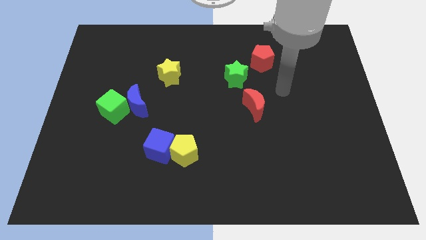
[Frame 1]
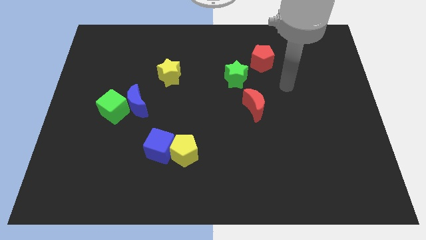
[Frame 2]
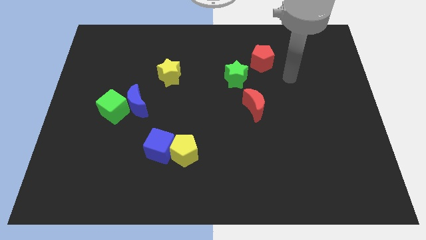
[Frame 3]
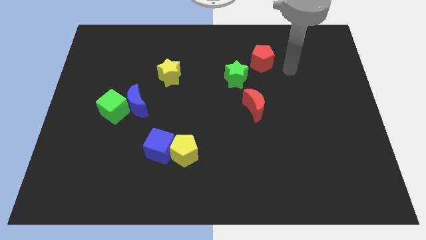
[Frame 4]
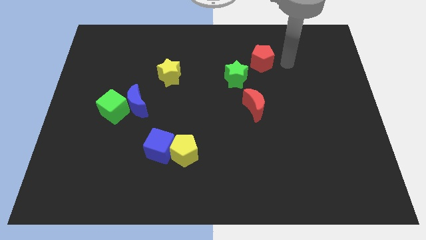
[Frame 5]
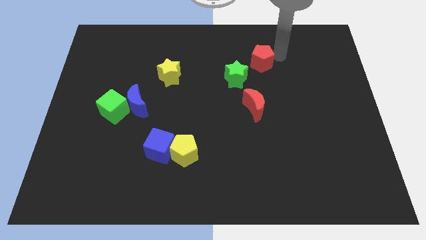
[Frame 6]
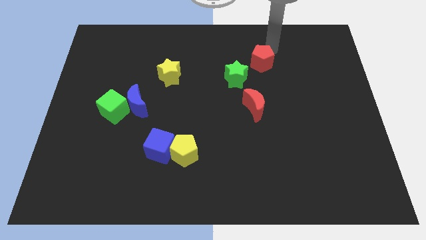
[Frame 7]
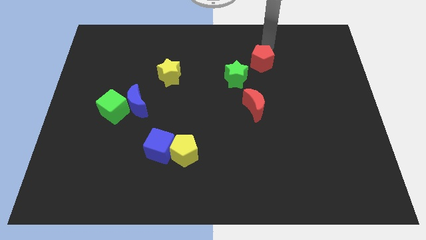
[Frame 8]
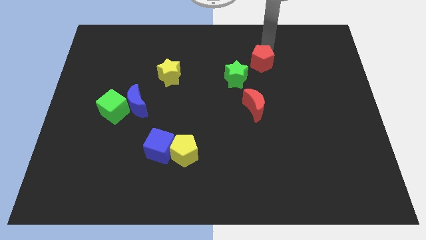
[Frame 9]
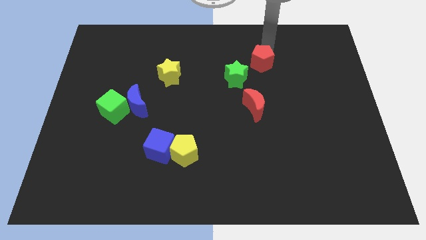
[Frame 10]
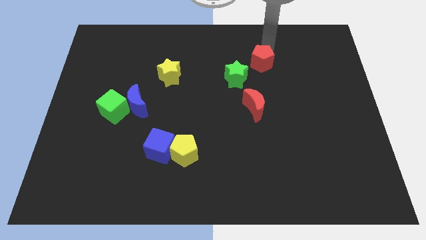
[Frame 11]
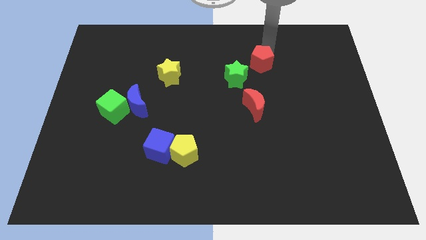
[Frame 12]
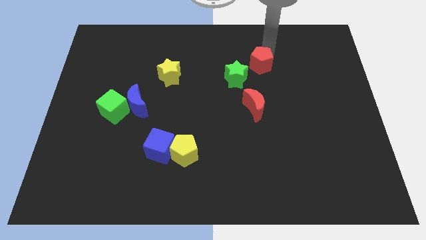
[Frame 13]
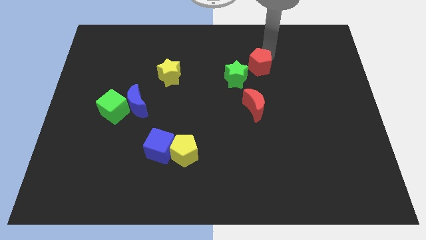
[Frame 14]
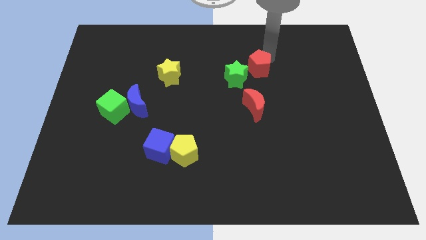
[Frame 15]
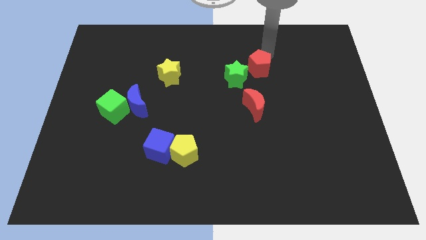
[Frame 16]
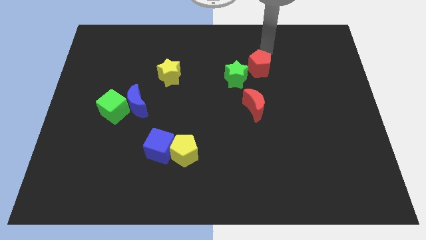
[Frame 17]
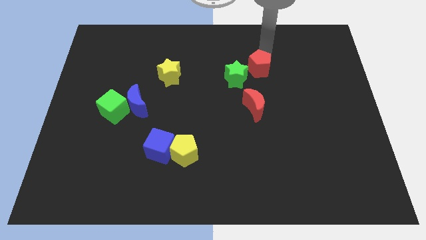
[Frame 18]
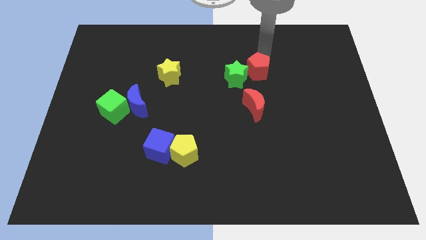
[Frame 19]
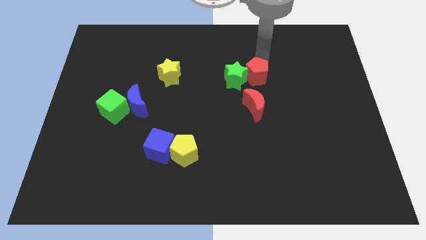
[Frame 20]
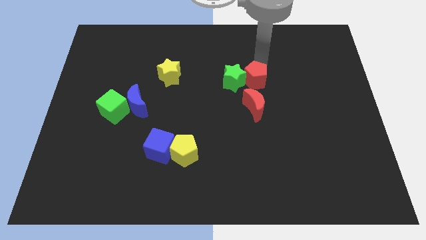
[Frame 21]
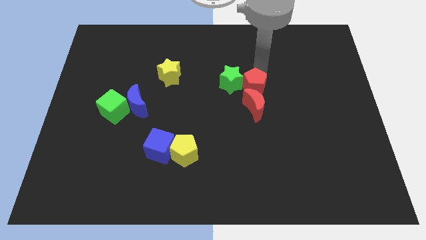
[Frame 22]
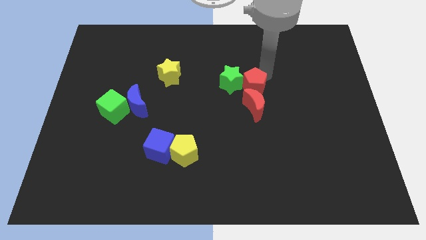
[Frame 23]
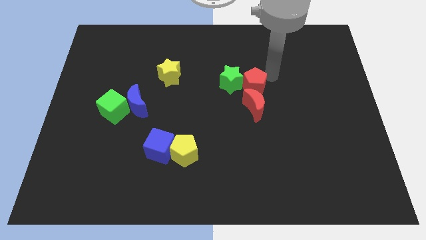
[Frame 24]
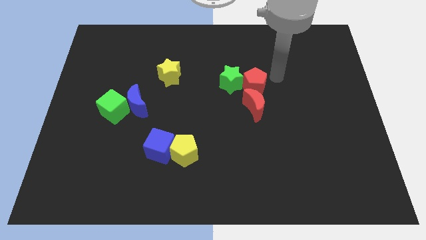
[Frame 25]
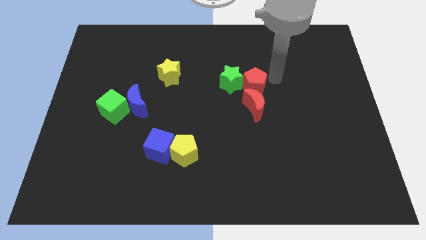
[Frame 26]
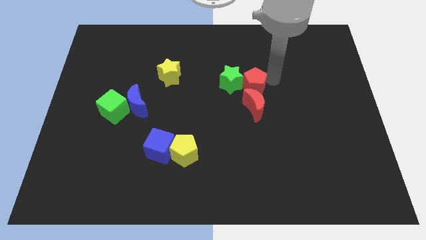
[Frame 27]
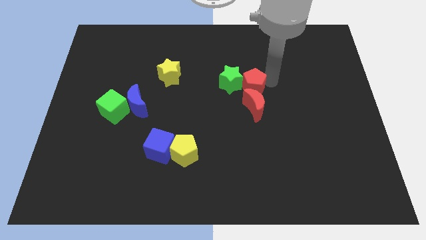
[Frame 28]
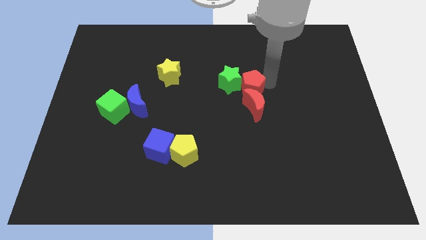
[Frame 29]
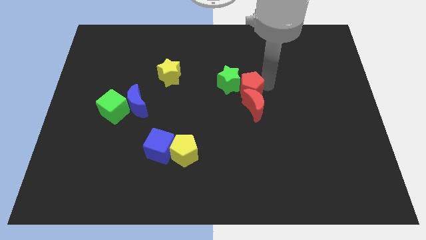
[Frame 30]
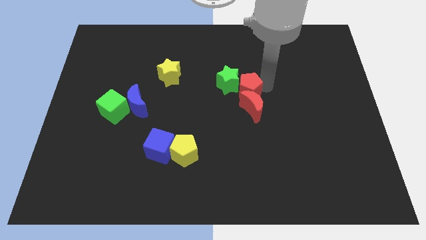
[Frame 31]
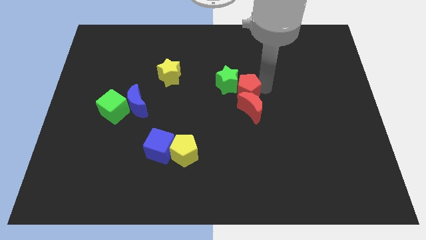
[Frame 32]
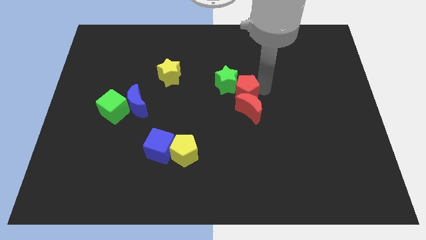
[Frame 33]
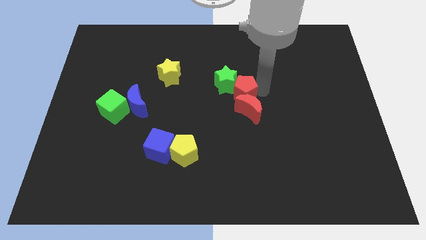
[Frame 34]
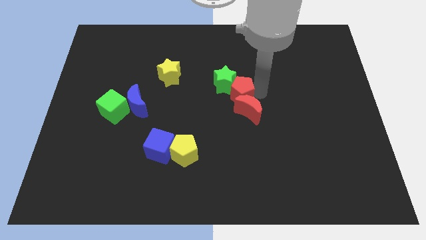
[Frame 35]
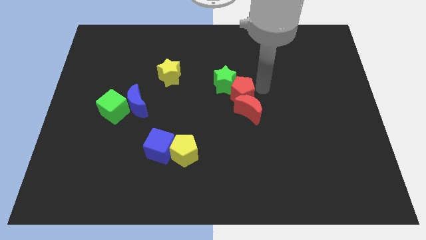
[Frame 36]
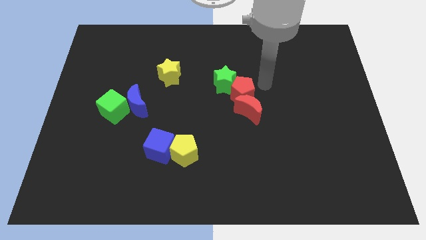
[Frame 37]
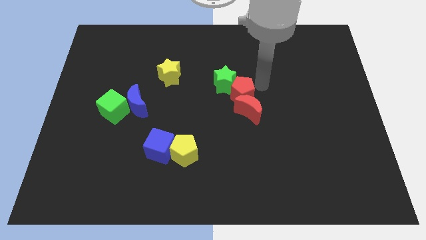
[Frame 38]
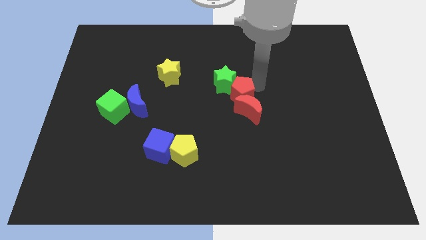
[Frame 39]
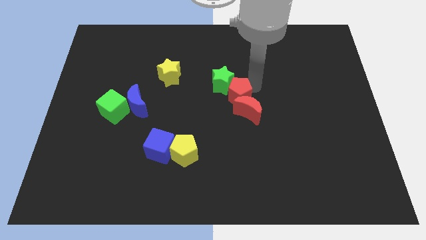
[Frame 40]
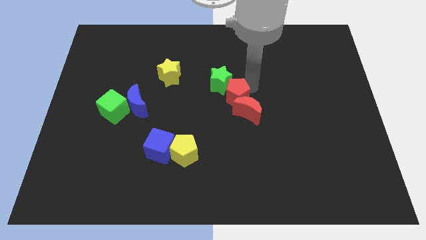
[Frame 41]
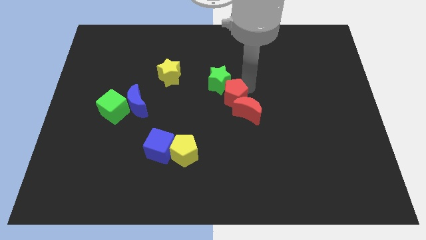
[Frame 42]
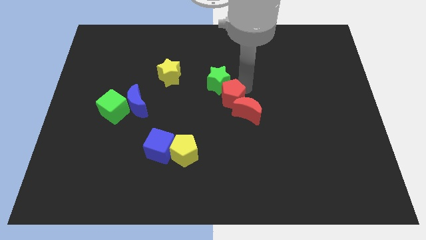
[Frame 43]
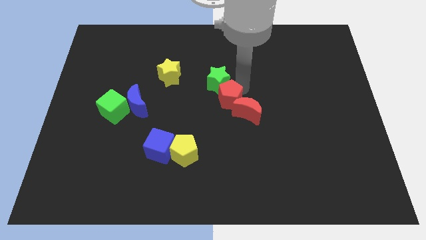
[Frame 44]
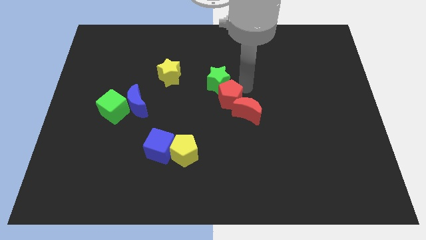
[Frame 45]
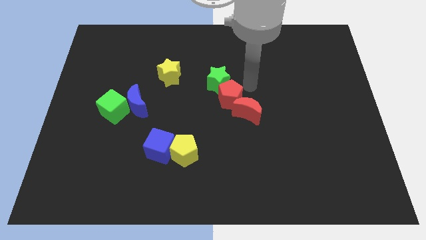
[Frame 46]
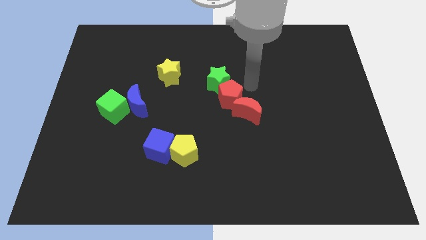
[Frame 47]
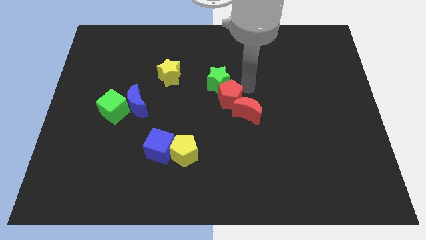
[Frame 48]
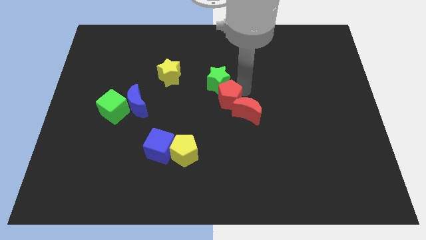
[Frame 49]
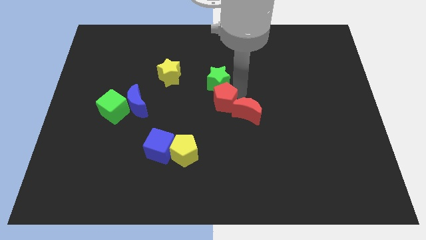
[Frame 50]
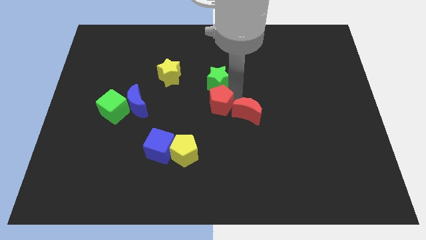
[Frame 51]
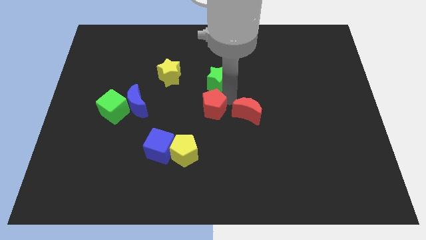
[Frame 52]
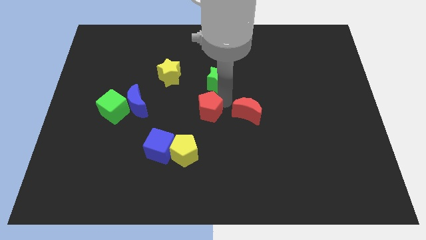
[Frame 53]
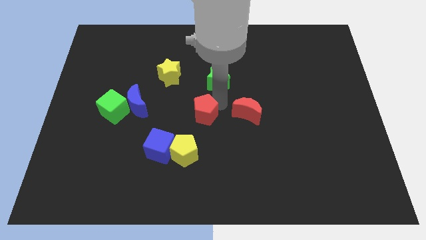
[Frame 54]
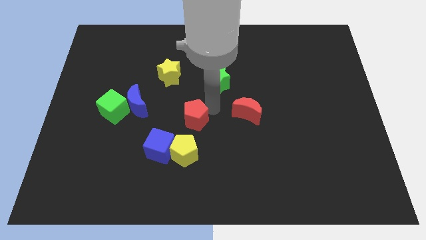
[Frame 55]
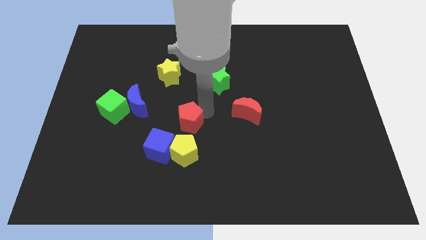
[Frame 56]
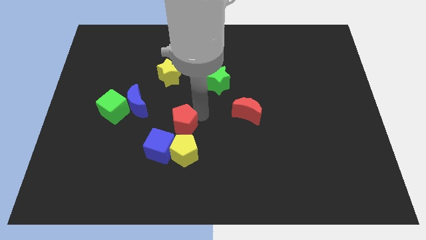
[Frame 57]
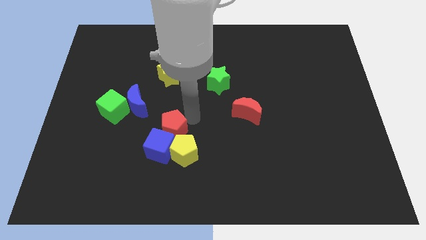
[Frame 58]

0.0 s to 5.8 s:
slide the red pentagon next to the blue cube

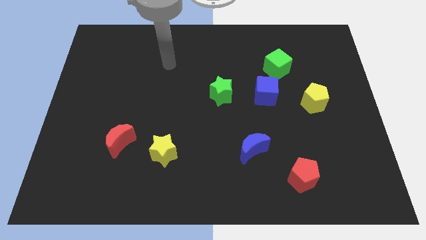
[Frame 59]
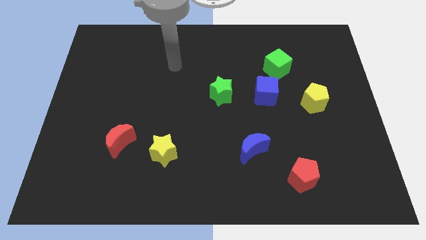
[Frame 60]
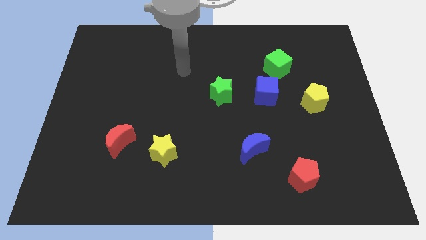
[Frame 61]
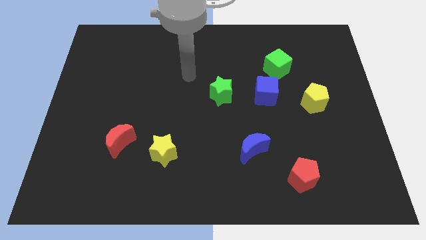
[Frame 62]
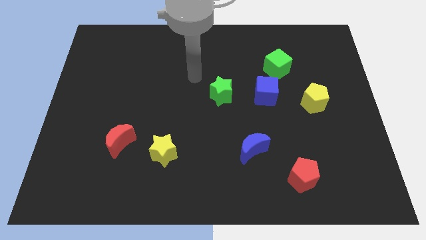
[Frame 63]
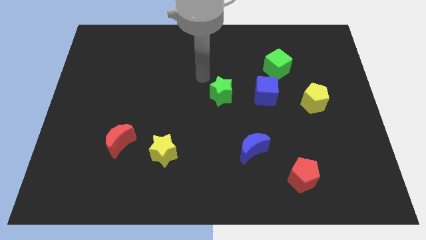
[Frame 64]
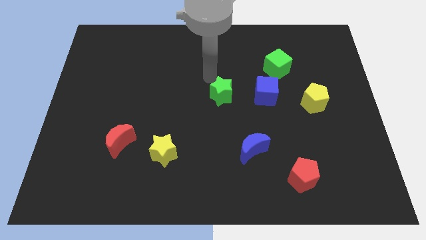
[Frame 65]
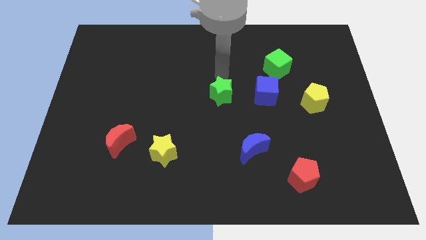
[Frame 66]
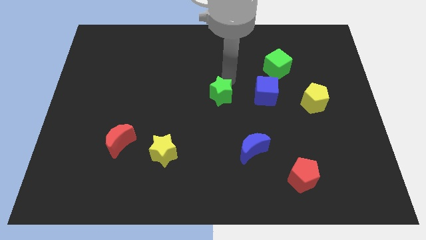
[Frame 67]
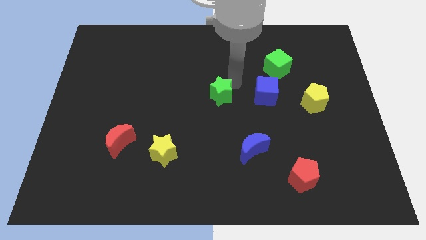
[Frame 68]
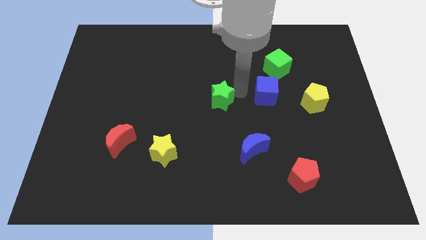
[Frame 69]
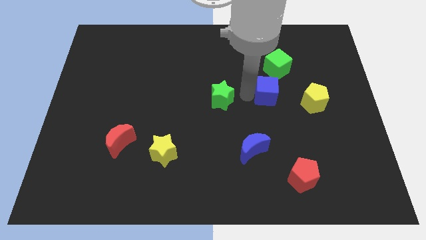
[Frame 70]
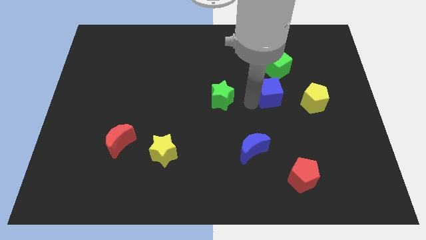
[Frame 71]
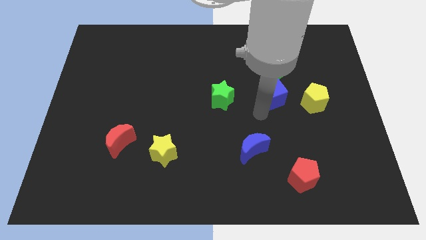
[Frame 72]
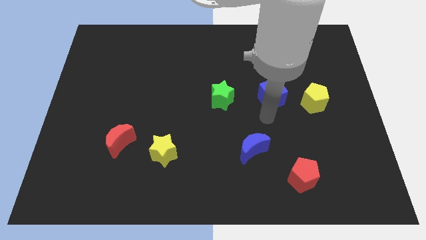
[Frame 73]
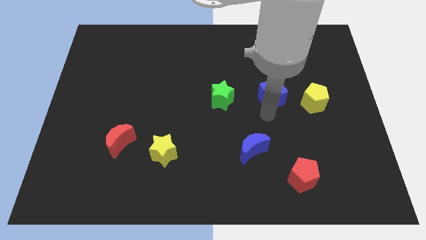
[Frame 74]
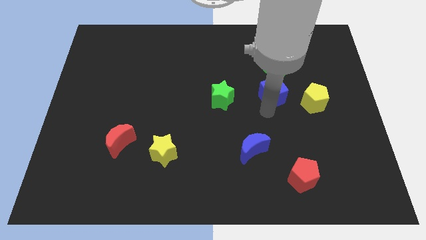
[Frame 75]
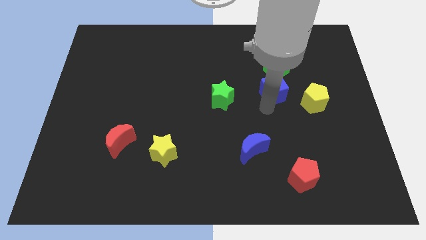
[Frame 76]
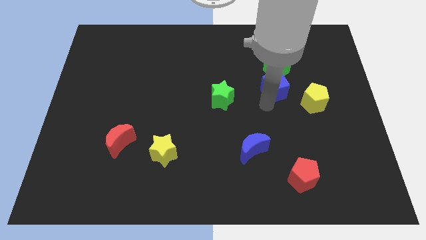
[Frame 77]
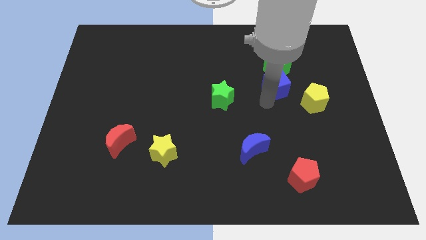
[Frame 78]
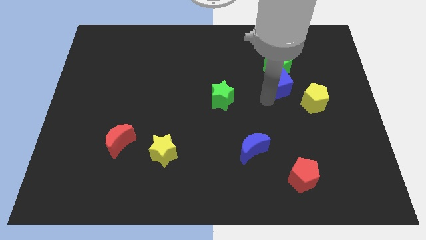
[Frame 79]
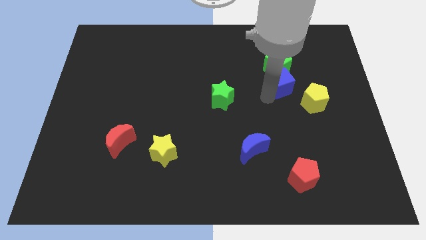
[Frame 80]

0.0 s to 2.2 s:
slide the blue cube close to the green cube
